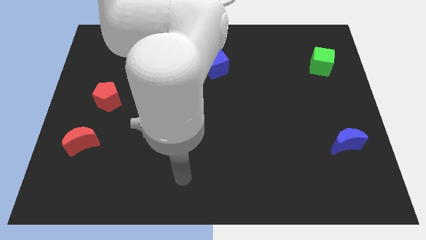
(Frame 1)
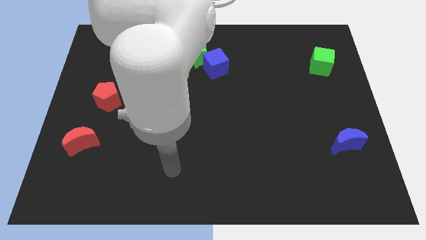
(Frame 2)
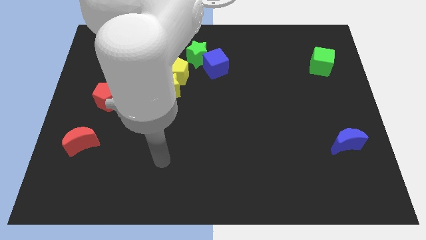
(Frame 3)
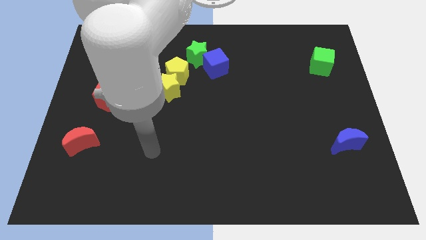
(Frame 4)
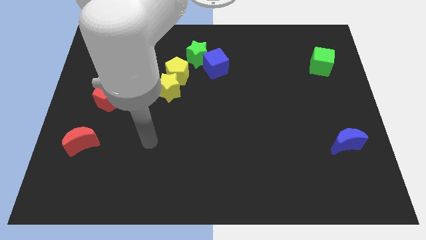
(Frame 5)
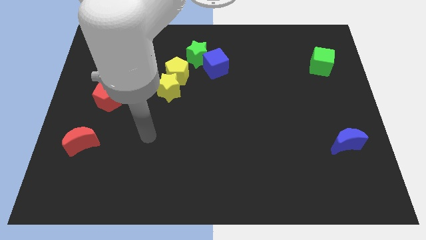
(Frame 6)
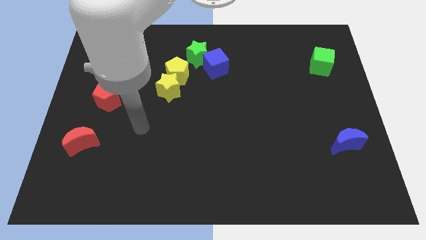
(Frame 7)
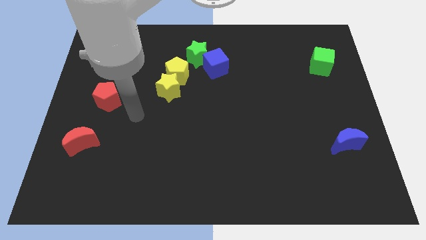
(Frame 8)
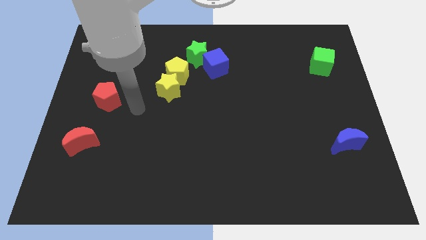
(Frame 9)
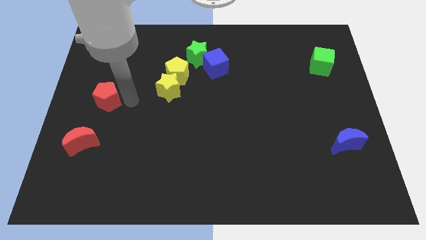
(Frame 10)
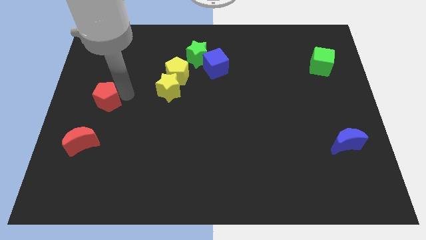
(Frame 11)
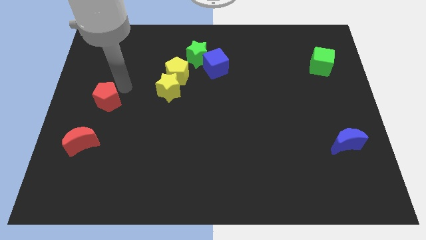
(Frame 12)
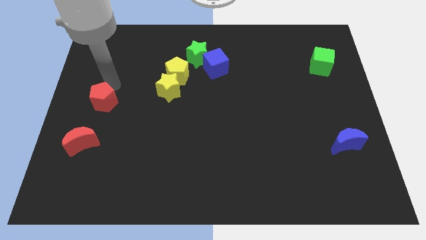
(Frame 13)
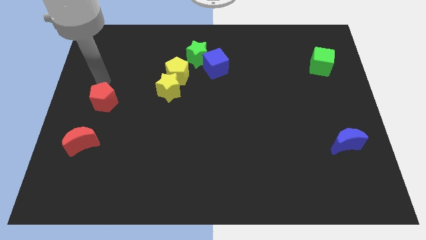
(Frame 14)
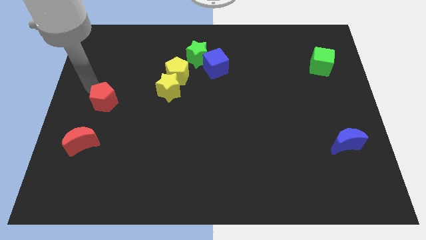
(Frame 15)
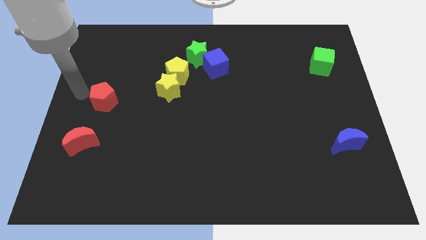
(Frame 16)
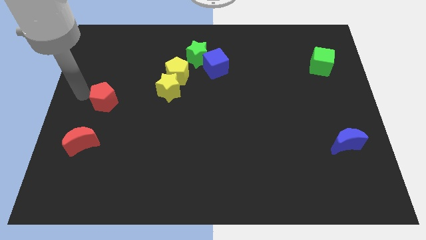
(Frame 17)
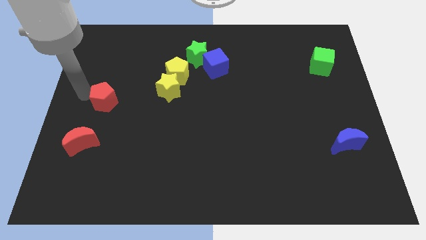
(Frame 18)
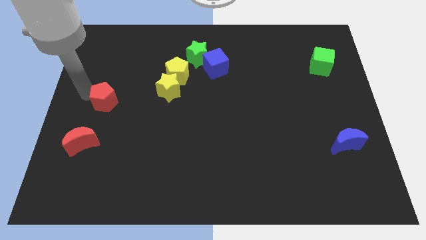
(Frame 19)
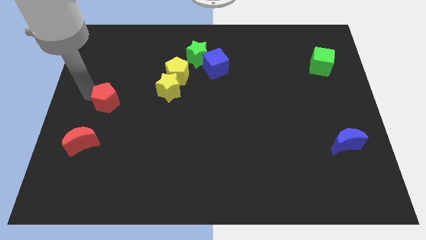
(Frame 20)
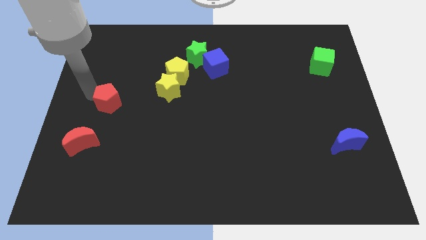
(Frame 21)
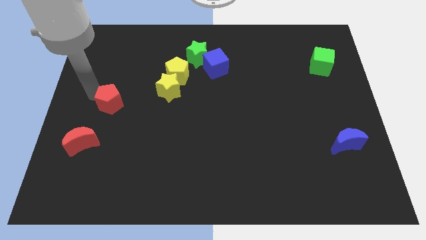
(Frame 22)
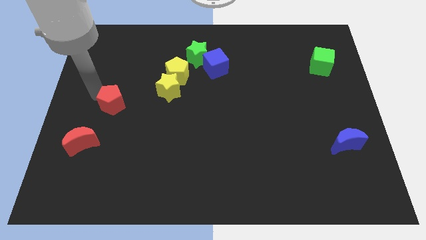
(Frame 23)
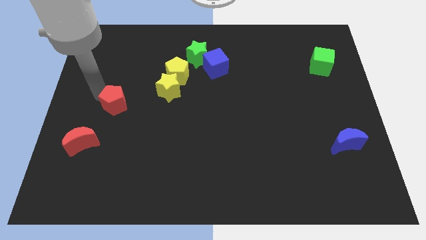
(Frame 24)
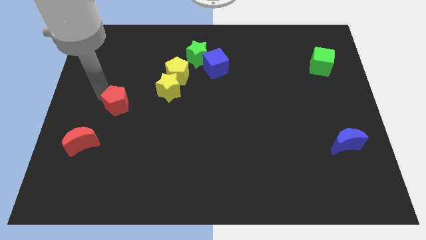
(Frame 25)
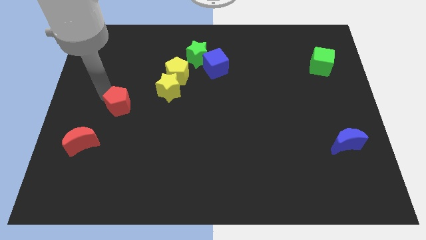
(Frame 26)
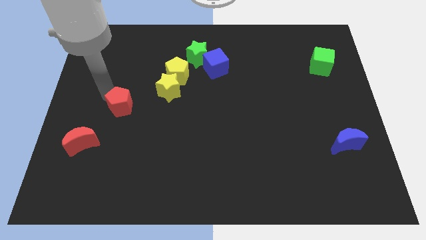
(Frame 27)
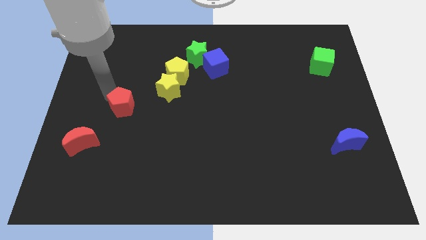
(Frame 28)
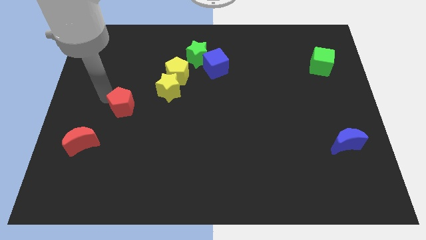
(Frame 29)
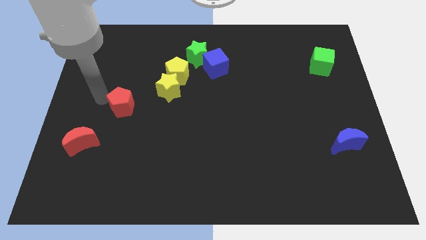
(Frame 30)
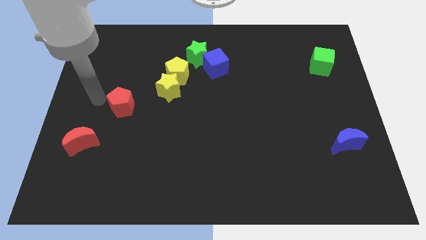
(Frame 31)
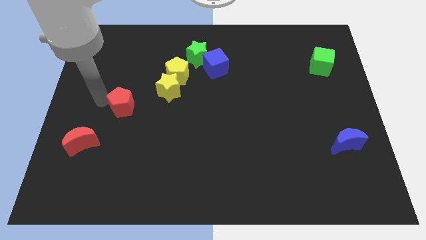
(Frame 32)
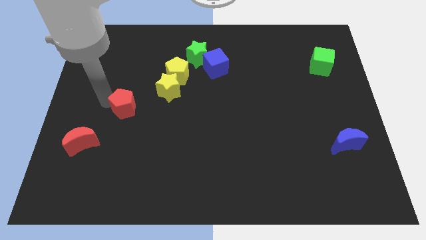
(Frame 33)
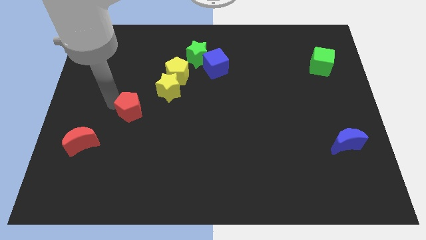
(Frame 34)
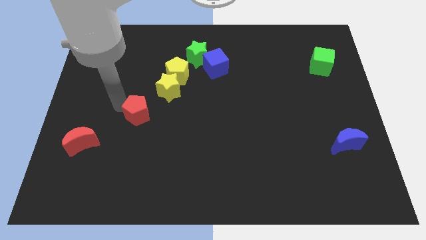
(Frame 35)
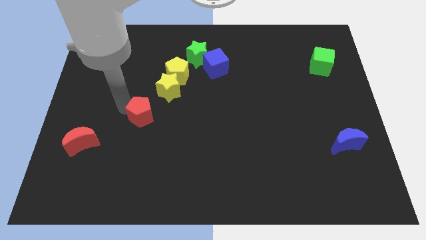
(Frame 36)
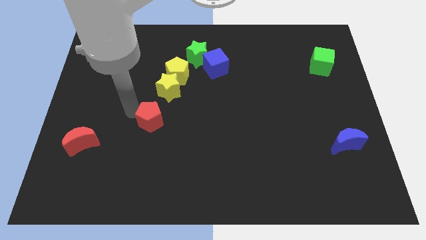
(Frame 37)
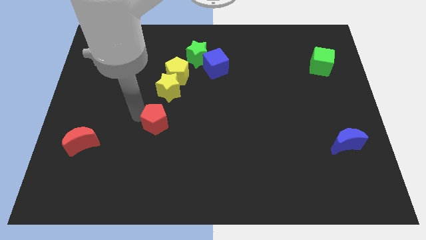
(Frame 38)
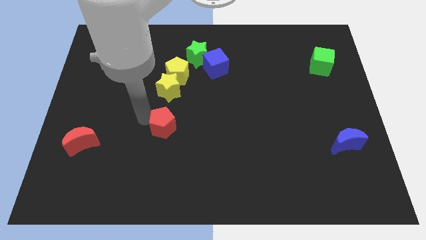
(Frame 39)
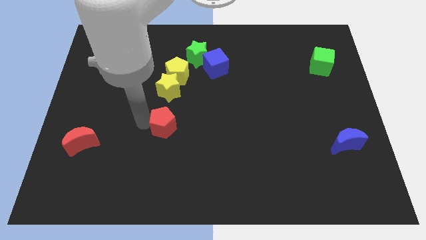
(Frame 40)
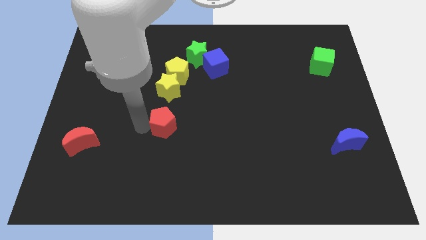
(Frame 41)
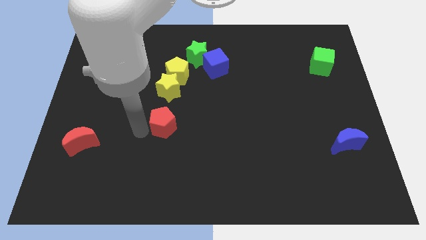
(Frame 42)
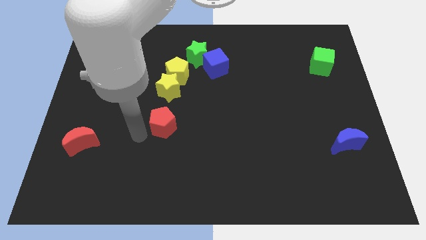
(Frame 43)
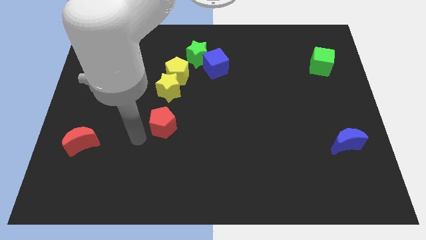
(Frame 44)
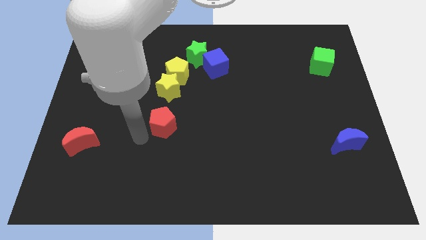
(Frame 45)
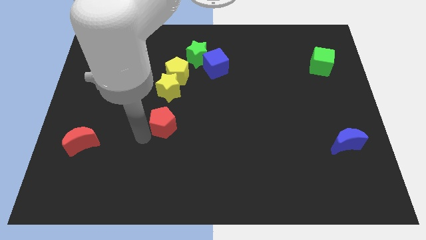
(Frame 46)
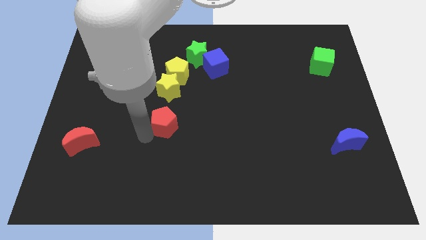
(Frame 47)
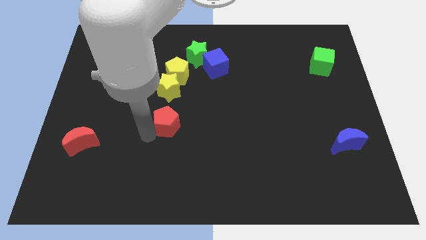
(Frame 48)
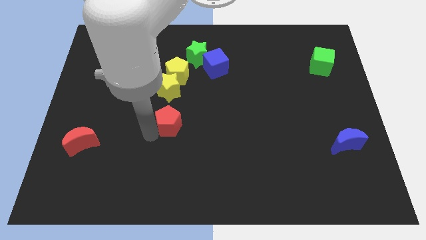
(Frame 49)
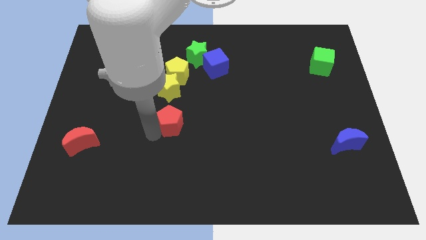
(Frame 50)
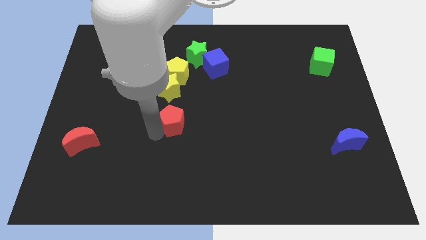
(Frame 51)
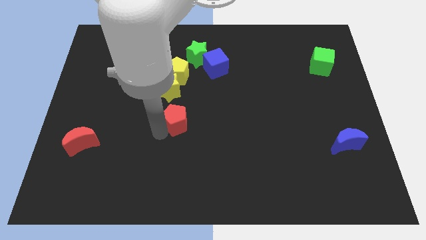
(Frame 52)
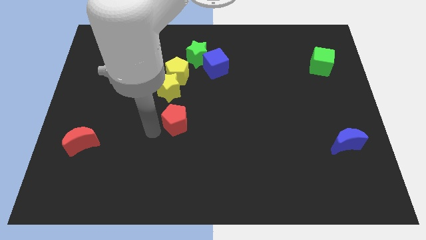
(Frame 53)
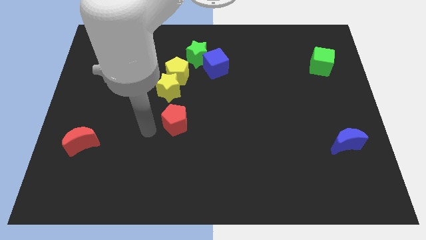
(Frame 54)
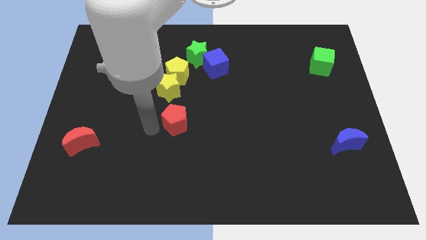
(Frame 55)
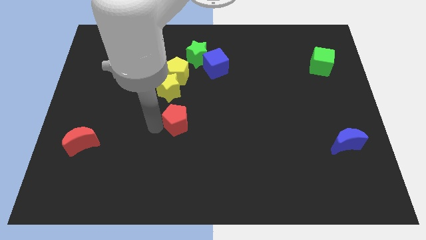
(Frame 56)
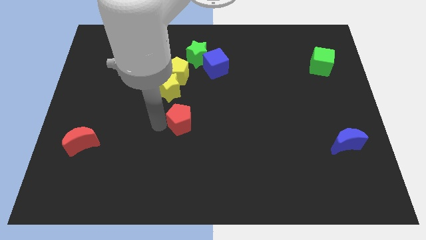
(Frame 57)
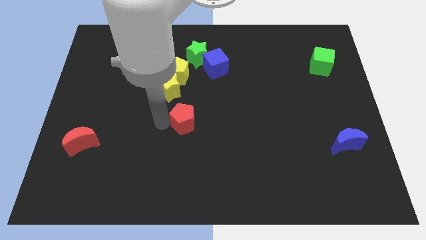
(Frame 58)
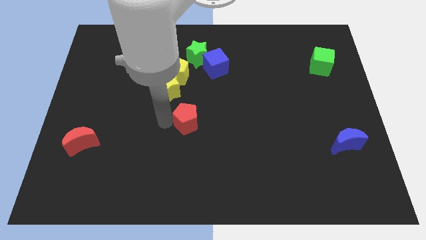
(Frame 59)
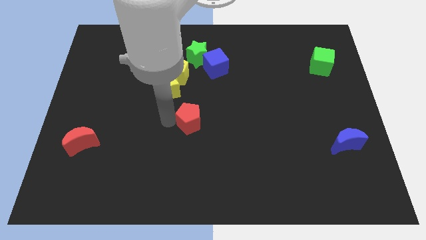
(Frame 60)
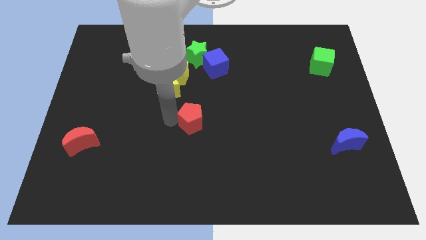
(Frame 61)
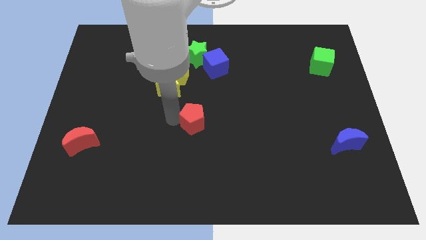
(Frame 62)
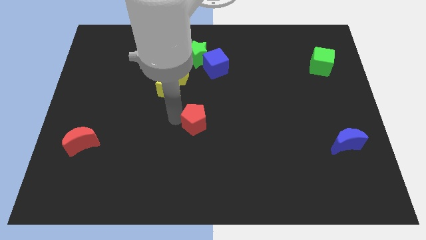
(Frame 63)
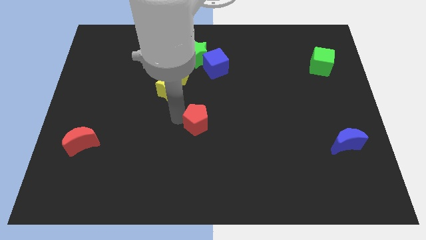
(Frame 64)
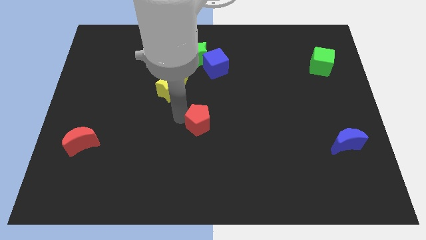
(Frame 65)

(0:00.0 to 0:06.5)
move the red pentagon right

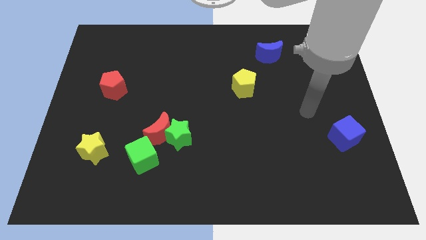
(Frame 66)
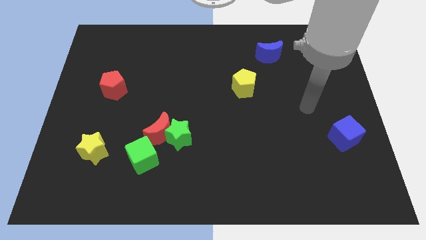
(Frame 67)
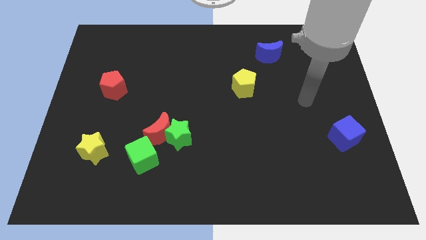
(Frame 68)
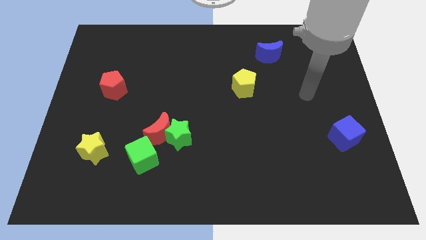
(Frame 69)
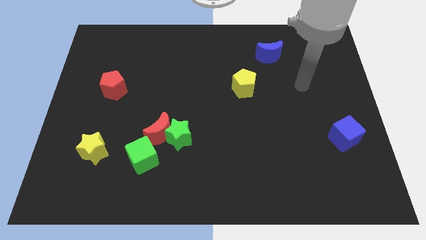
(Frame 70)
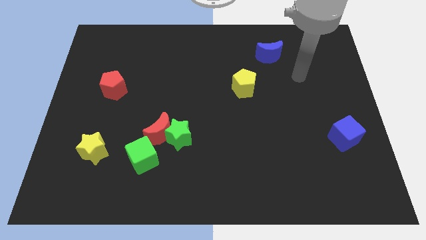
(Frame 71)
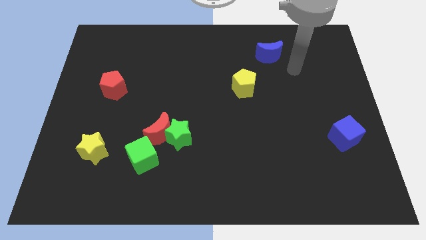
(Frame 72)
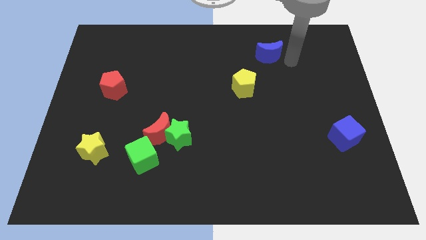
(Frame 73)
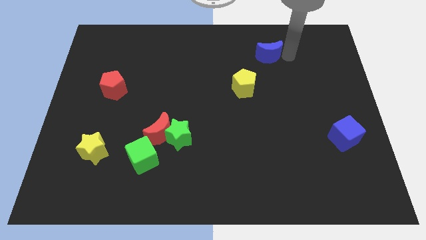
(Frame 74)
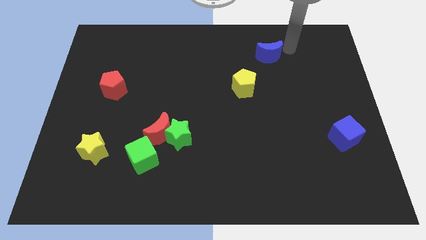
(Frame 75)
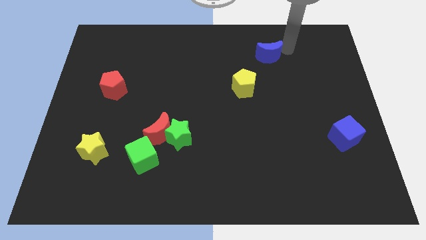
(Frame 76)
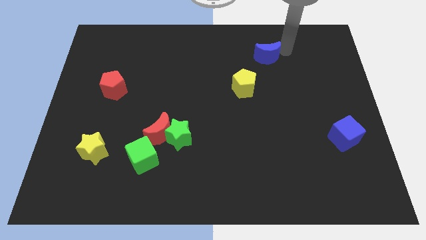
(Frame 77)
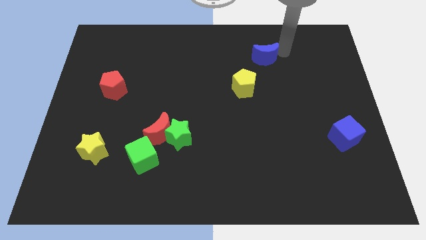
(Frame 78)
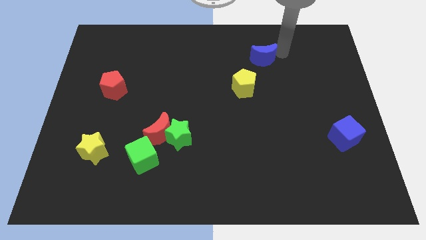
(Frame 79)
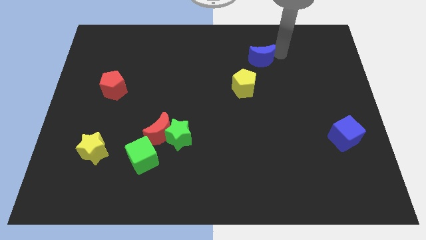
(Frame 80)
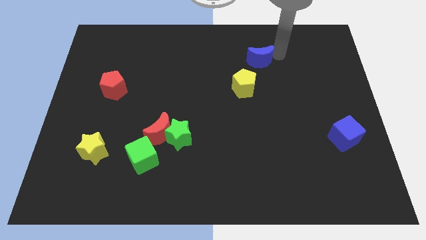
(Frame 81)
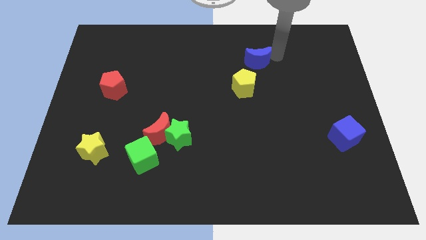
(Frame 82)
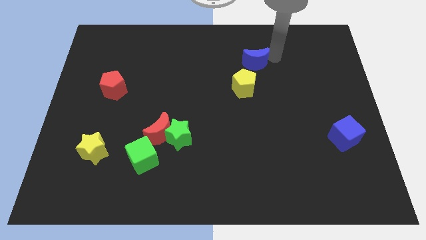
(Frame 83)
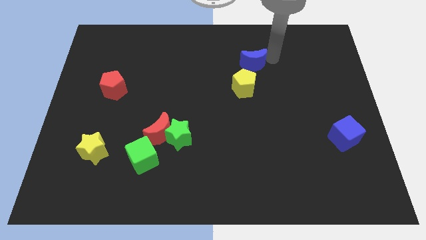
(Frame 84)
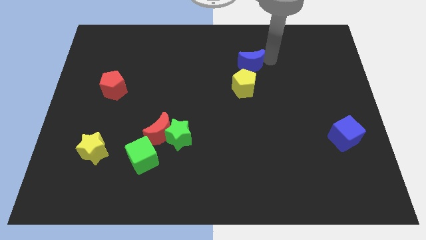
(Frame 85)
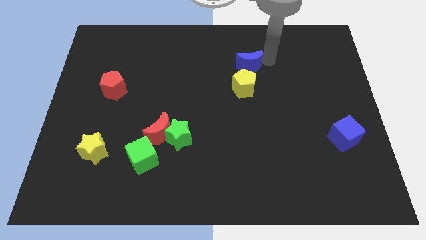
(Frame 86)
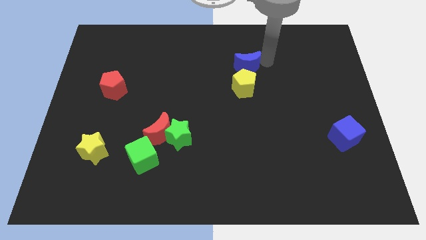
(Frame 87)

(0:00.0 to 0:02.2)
move the blue moon down and left diagonally a little bit
